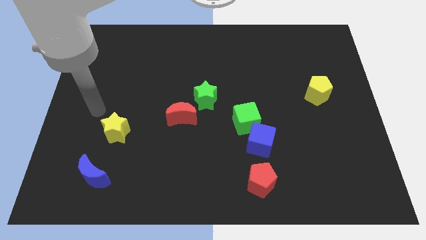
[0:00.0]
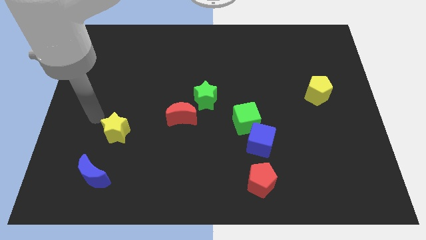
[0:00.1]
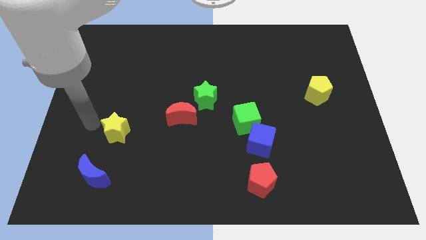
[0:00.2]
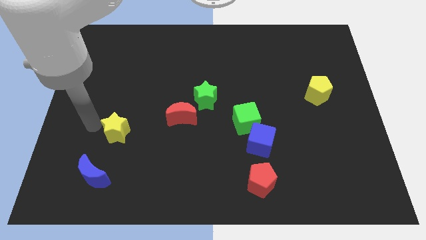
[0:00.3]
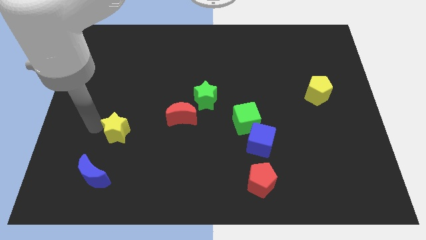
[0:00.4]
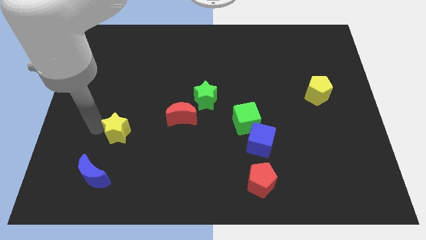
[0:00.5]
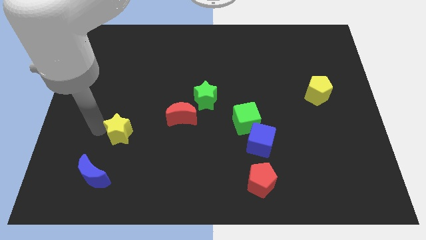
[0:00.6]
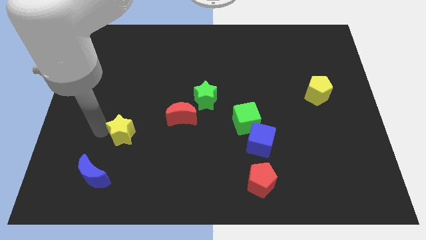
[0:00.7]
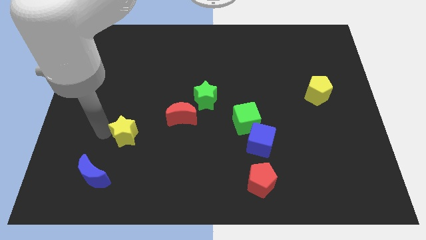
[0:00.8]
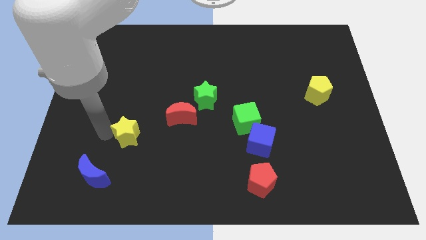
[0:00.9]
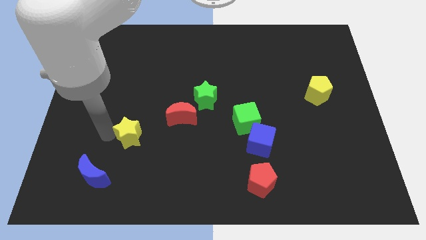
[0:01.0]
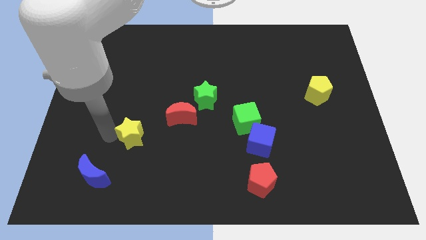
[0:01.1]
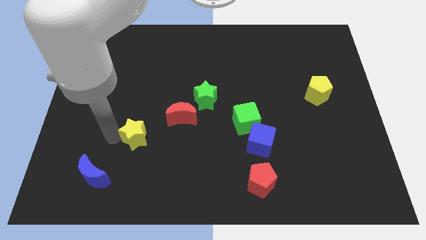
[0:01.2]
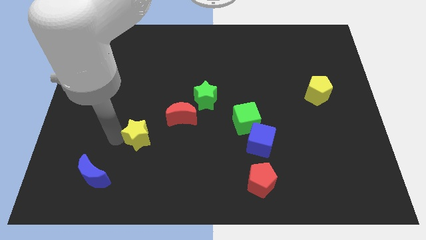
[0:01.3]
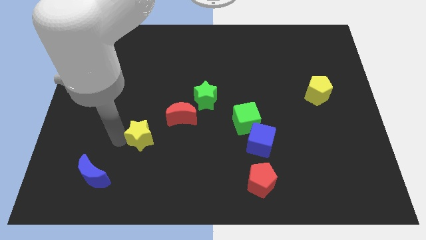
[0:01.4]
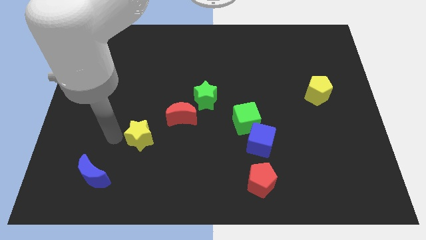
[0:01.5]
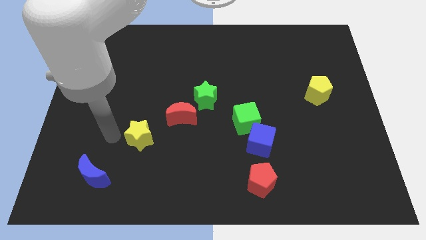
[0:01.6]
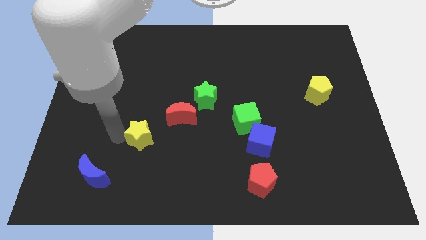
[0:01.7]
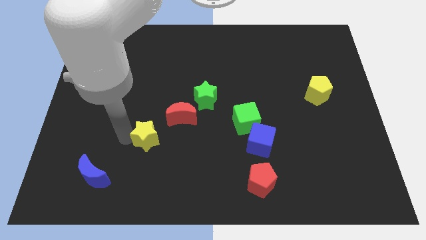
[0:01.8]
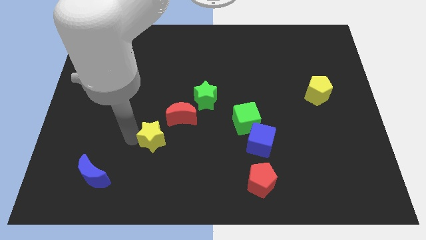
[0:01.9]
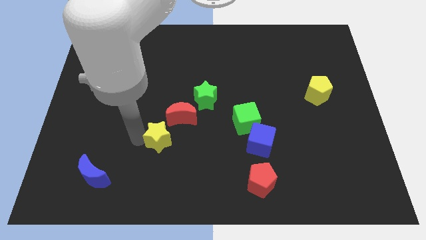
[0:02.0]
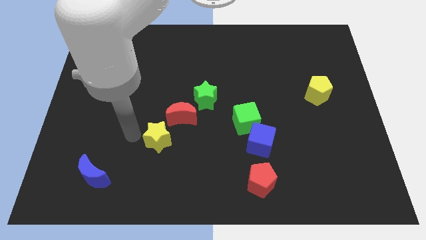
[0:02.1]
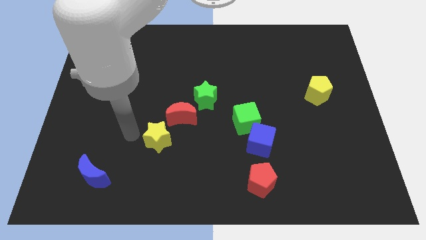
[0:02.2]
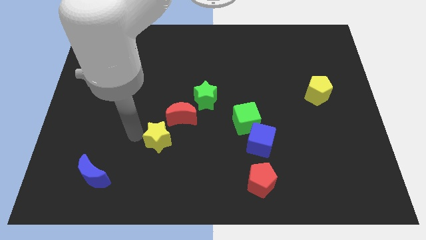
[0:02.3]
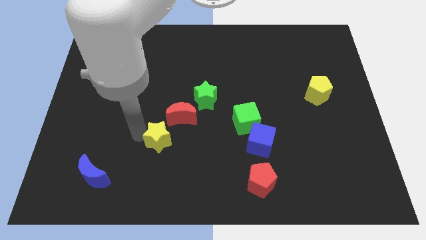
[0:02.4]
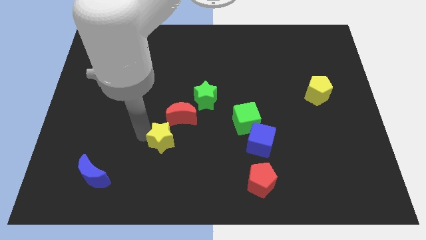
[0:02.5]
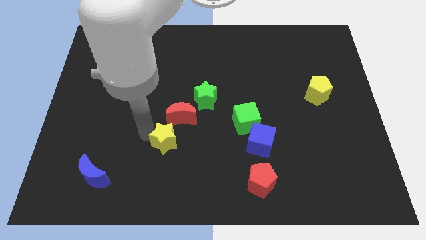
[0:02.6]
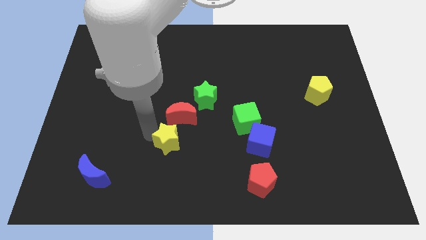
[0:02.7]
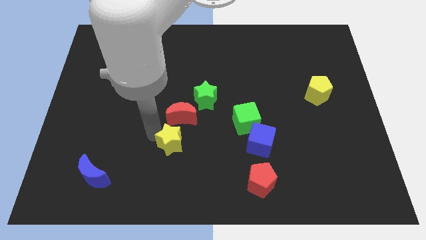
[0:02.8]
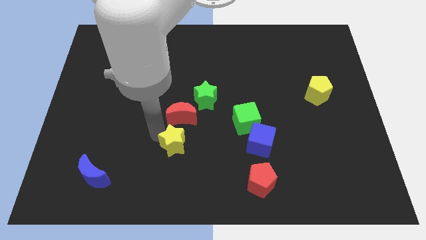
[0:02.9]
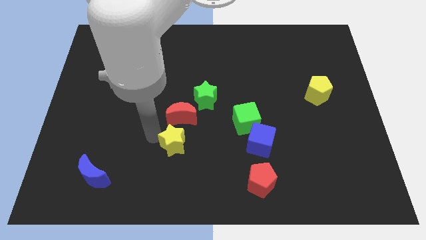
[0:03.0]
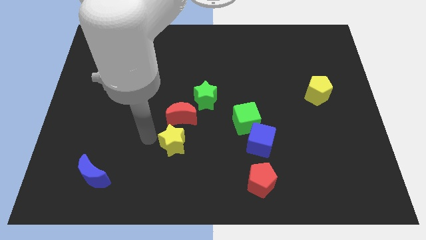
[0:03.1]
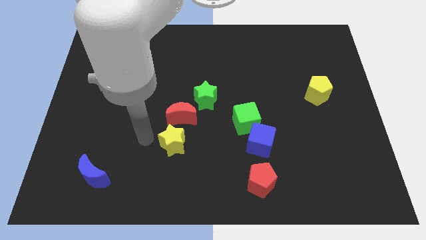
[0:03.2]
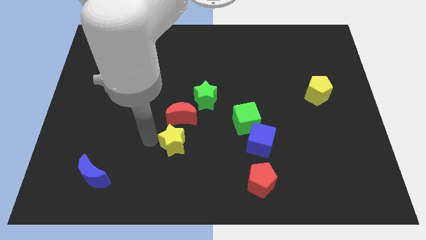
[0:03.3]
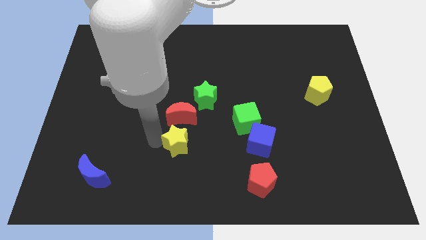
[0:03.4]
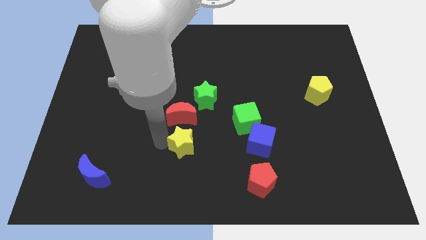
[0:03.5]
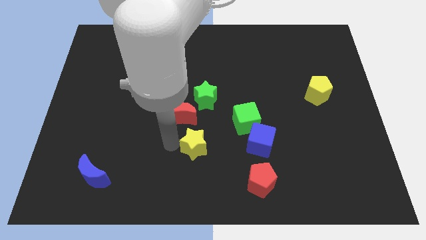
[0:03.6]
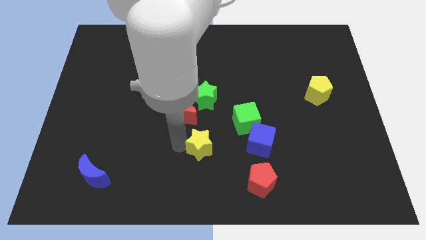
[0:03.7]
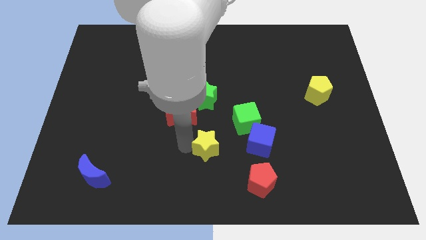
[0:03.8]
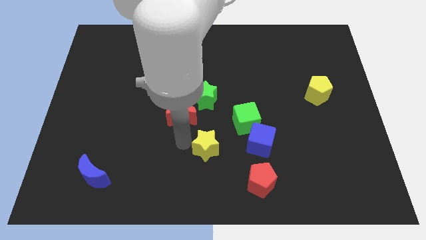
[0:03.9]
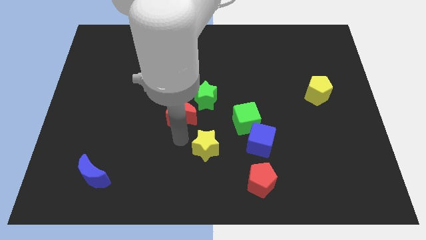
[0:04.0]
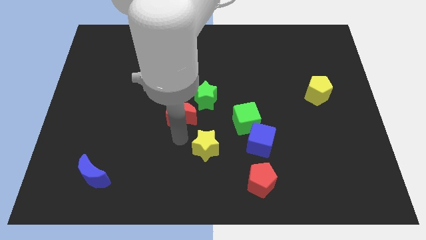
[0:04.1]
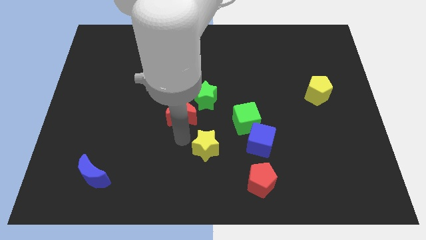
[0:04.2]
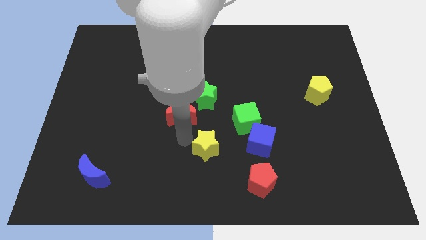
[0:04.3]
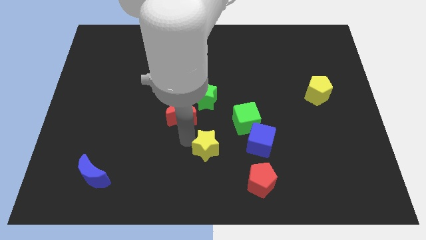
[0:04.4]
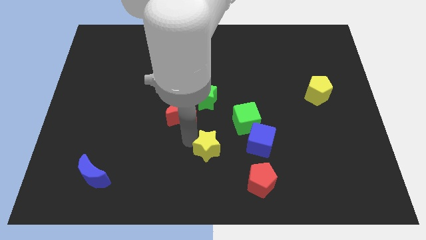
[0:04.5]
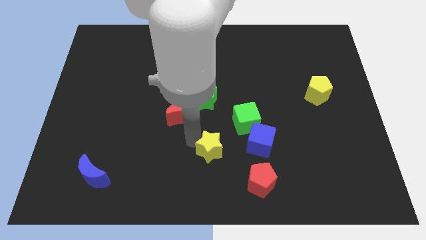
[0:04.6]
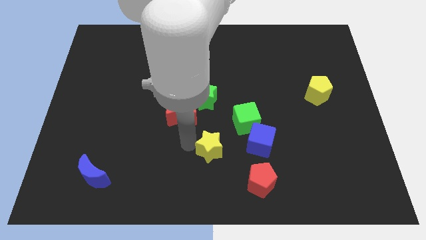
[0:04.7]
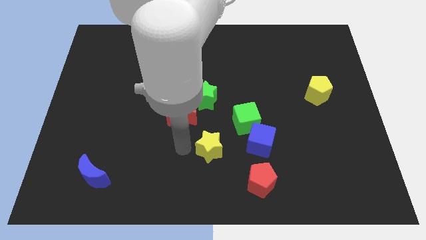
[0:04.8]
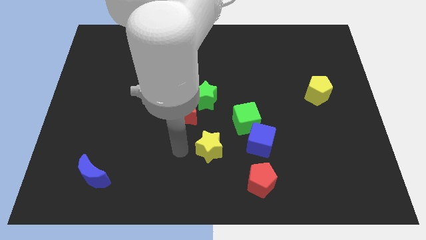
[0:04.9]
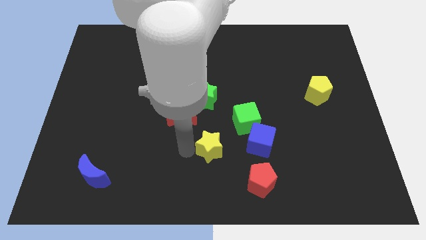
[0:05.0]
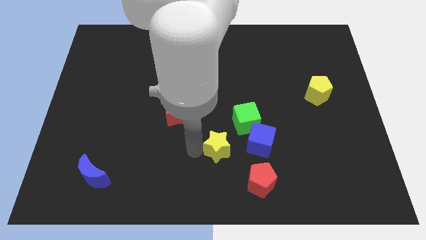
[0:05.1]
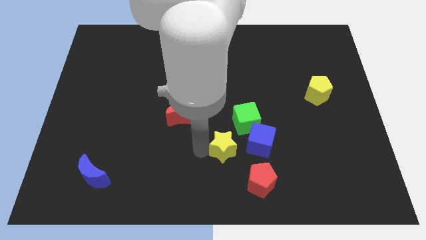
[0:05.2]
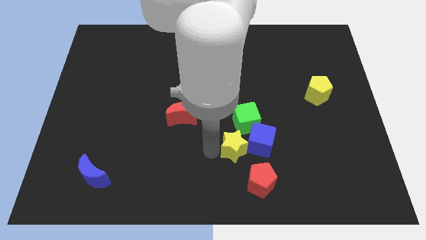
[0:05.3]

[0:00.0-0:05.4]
move the yellow star towards the blue cube

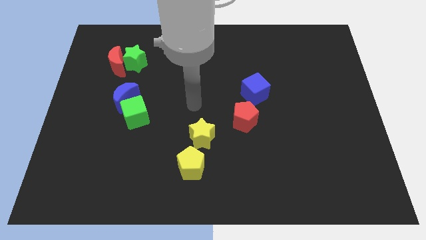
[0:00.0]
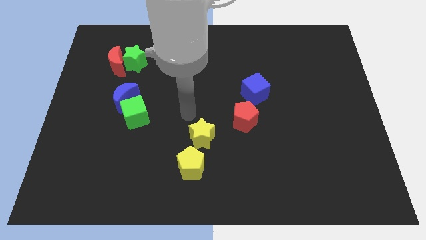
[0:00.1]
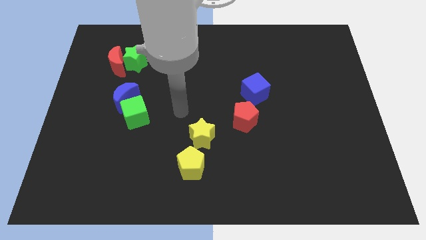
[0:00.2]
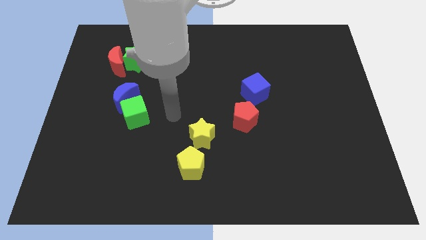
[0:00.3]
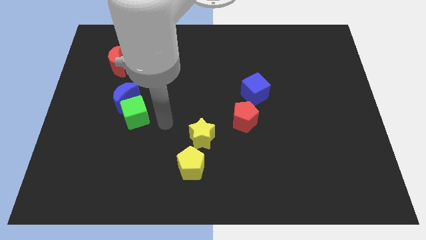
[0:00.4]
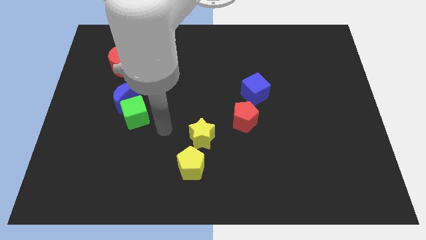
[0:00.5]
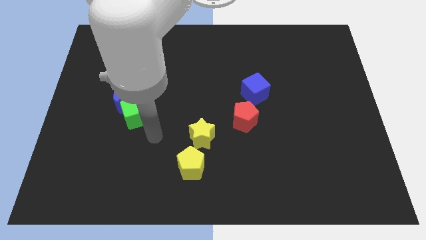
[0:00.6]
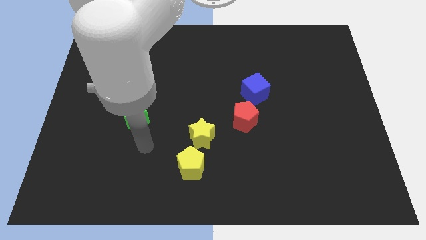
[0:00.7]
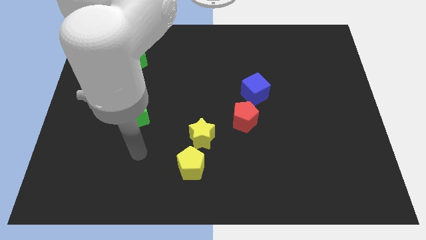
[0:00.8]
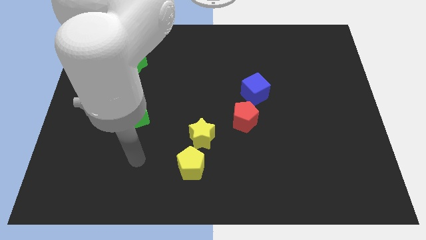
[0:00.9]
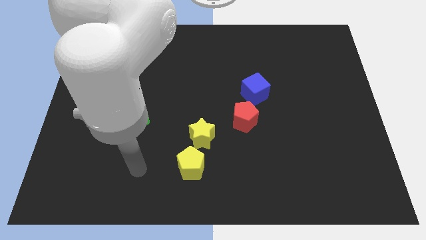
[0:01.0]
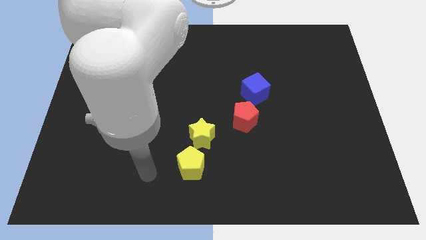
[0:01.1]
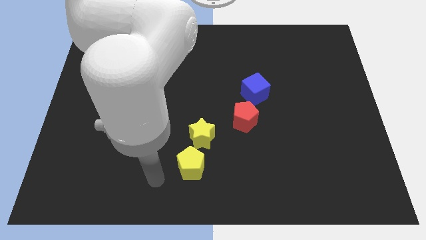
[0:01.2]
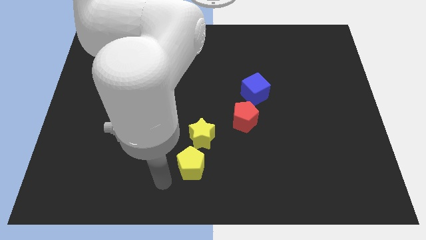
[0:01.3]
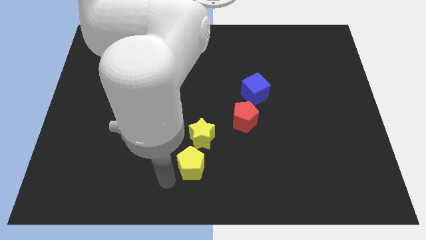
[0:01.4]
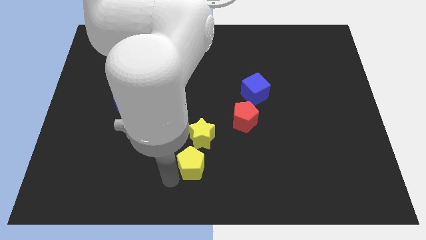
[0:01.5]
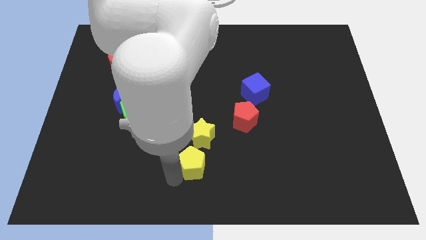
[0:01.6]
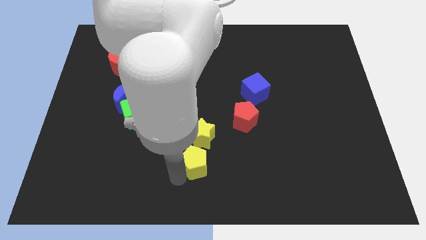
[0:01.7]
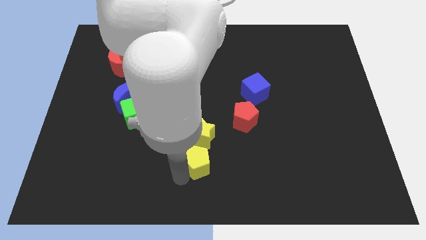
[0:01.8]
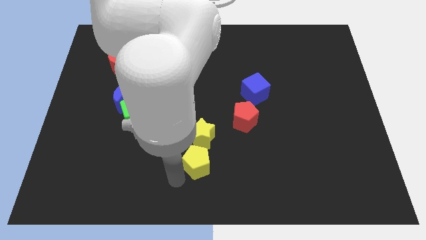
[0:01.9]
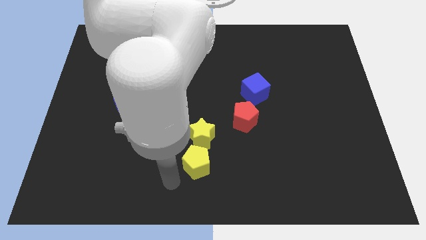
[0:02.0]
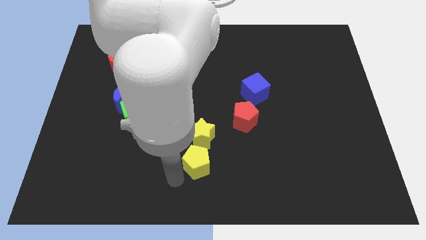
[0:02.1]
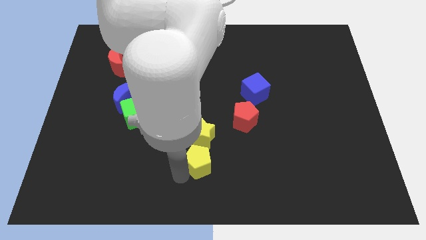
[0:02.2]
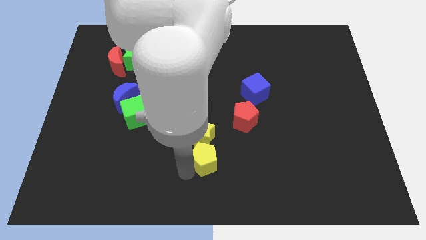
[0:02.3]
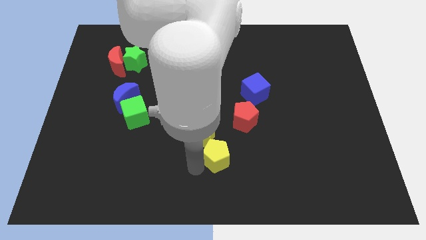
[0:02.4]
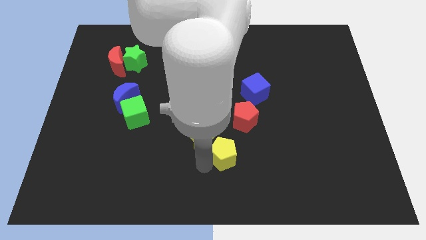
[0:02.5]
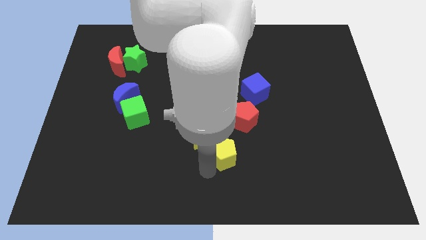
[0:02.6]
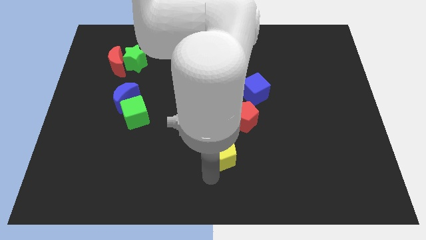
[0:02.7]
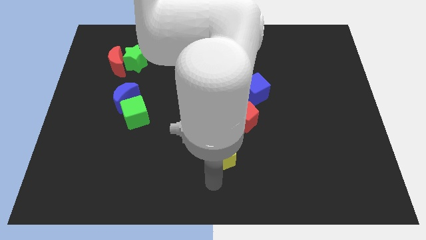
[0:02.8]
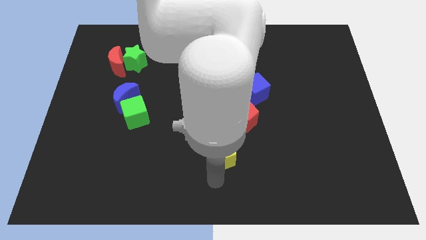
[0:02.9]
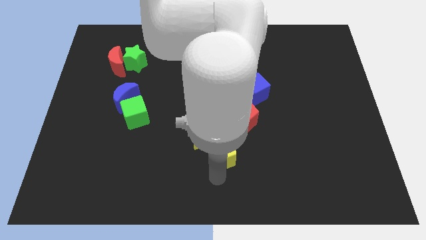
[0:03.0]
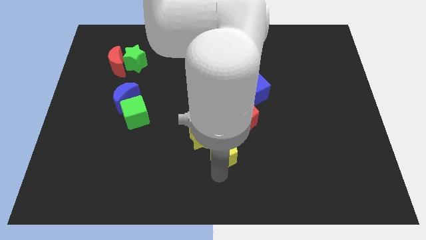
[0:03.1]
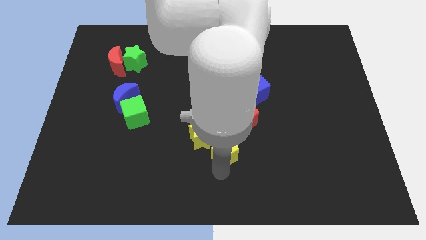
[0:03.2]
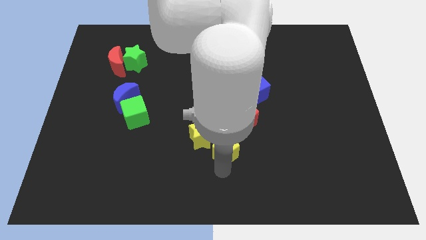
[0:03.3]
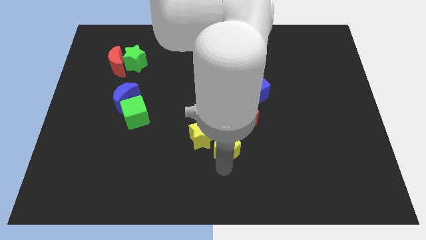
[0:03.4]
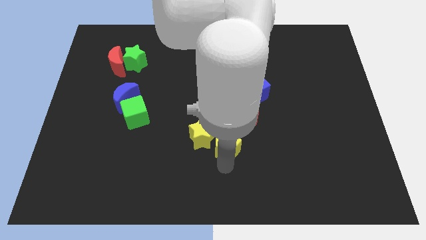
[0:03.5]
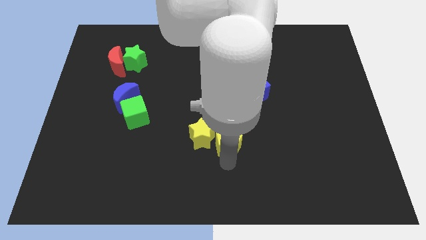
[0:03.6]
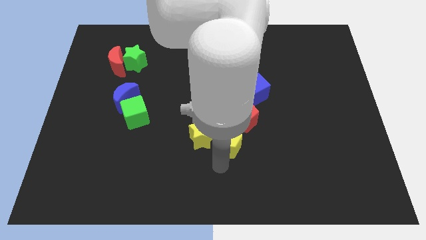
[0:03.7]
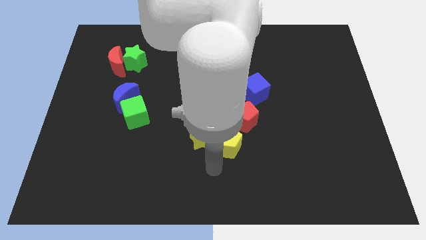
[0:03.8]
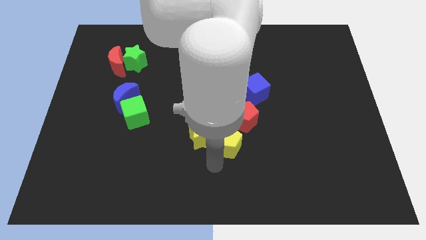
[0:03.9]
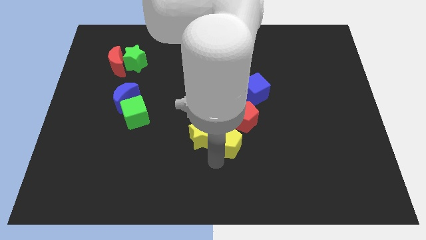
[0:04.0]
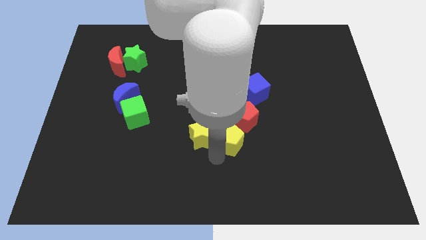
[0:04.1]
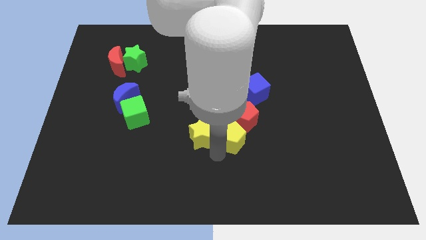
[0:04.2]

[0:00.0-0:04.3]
move the yellow pentagon towards the red pentagon
